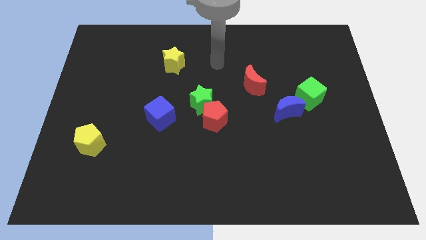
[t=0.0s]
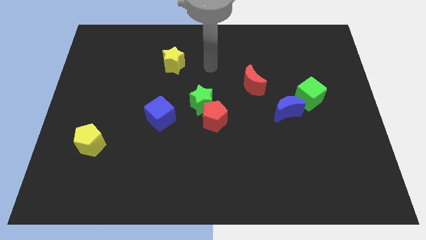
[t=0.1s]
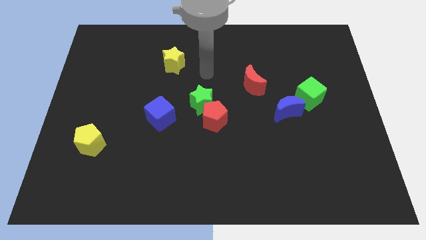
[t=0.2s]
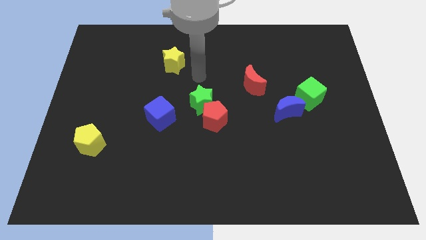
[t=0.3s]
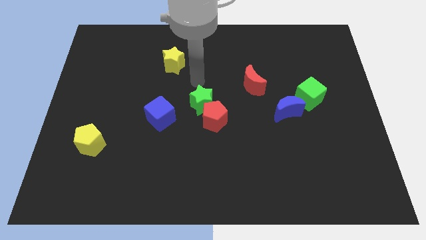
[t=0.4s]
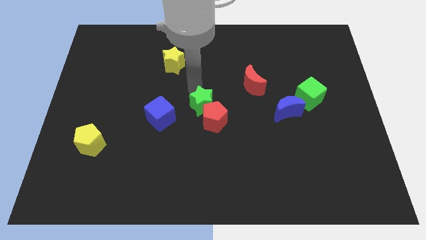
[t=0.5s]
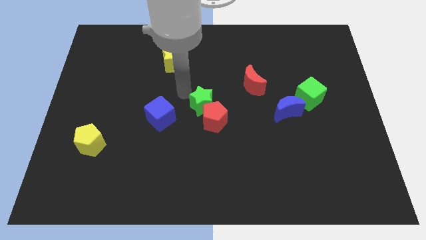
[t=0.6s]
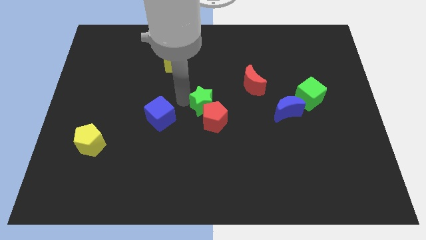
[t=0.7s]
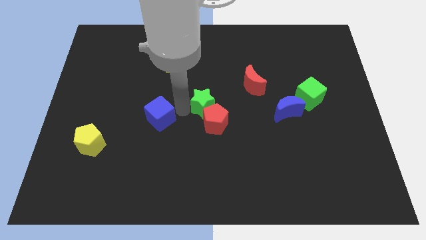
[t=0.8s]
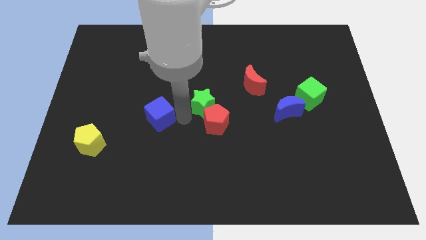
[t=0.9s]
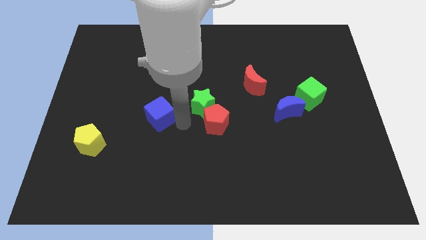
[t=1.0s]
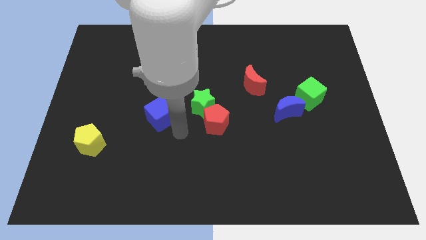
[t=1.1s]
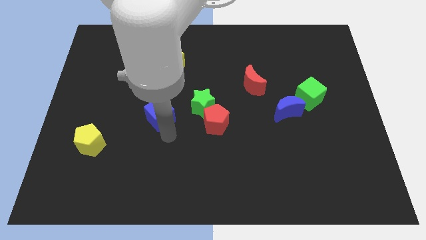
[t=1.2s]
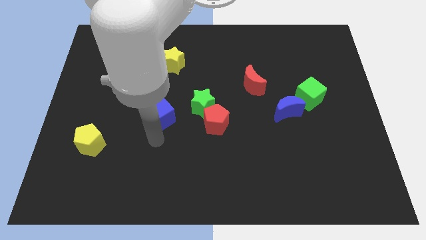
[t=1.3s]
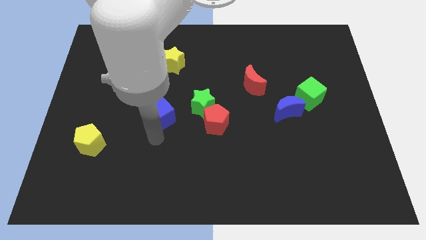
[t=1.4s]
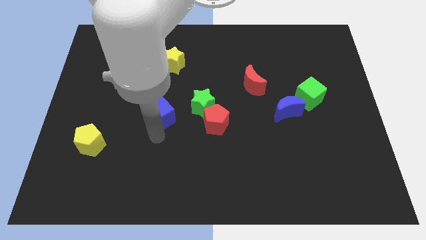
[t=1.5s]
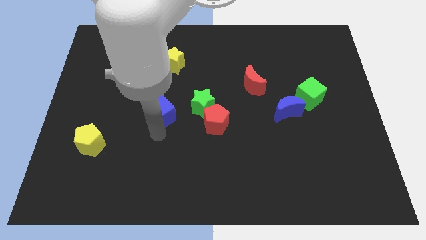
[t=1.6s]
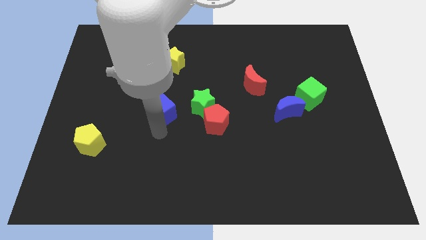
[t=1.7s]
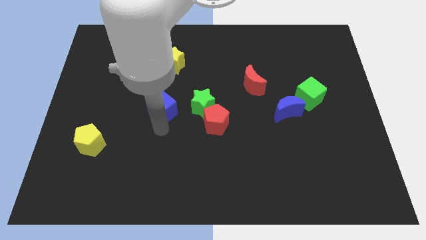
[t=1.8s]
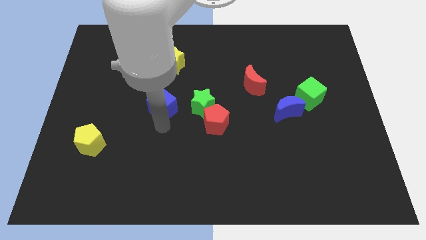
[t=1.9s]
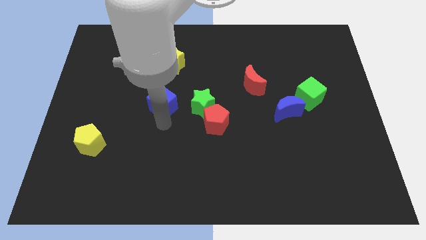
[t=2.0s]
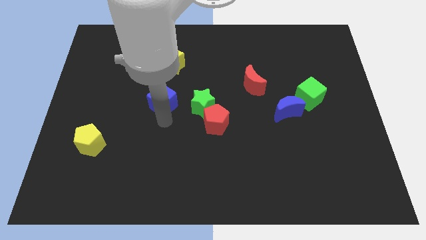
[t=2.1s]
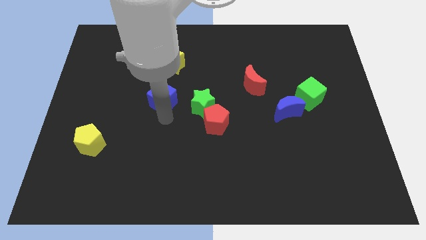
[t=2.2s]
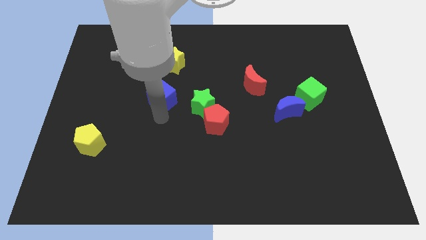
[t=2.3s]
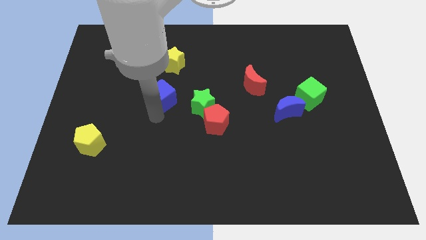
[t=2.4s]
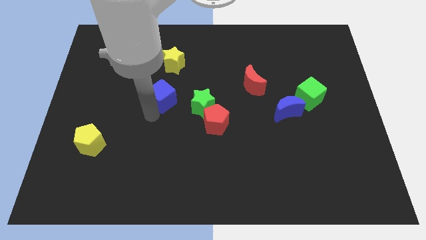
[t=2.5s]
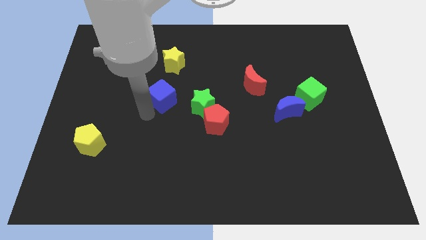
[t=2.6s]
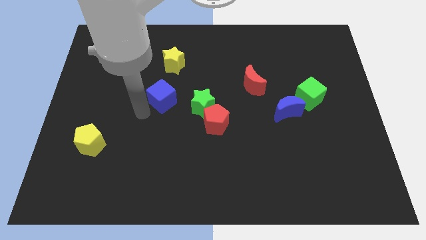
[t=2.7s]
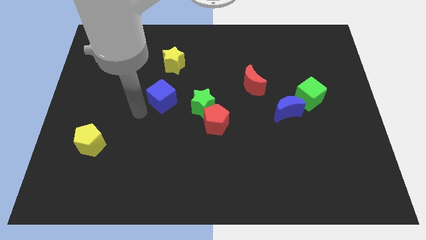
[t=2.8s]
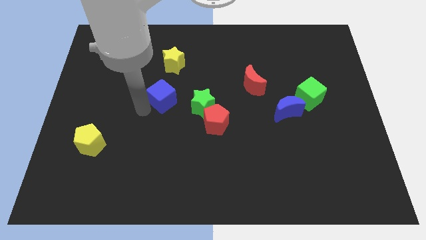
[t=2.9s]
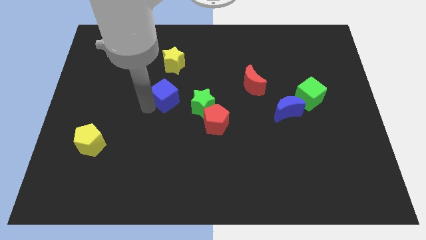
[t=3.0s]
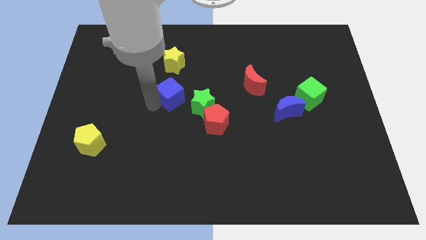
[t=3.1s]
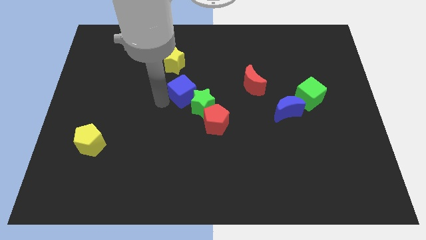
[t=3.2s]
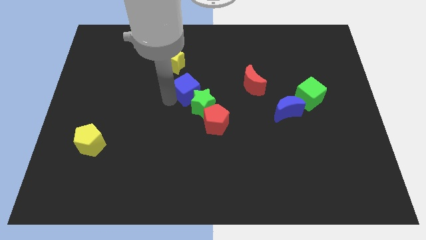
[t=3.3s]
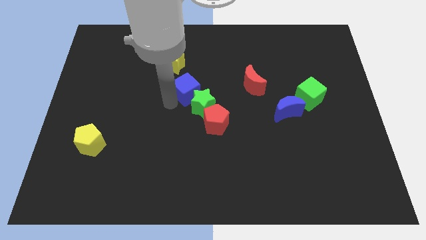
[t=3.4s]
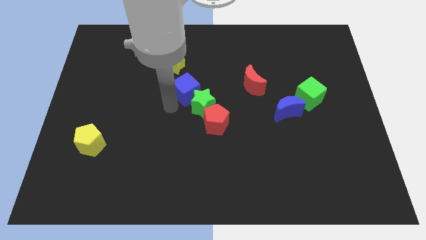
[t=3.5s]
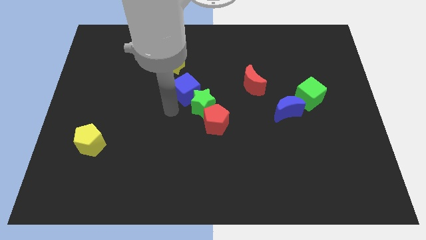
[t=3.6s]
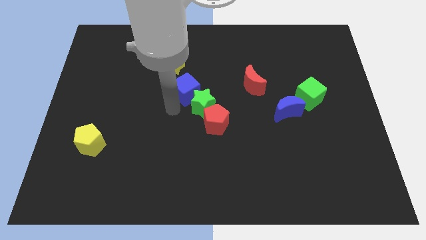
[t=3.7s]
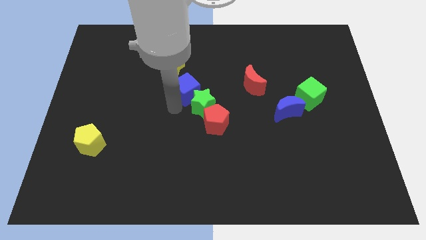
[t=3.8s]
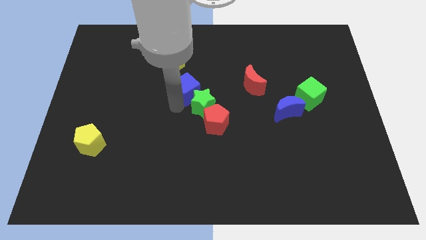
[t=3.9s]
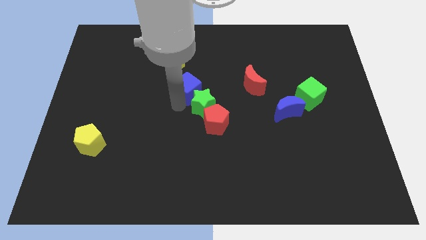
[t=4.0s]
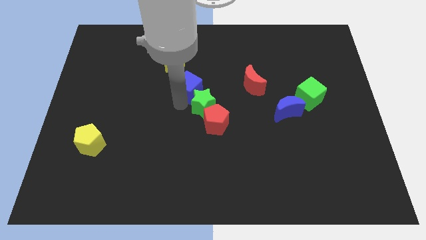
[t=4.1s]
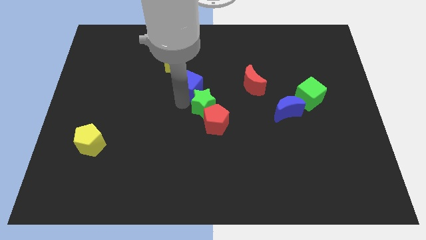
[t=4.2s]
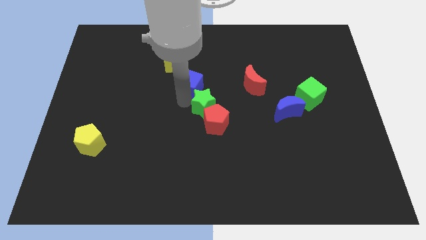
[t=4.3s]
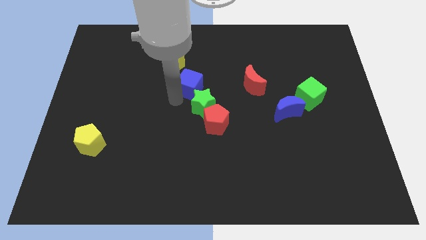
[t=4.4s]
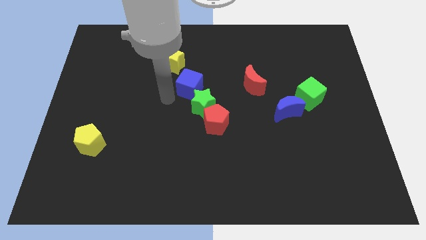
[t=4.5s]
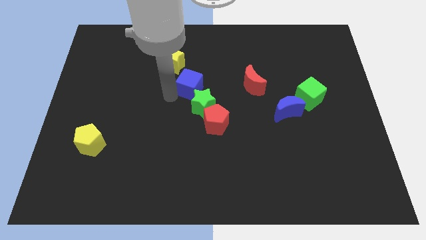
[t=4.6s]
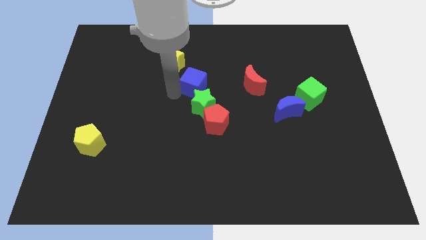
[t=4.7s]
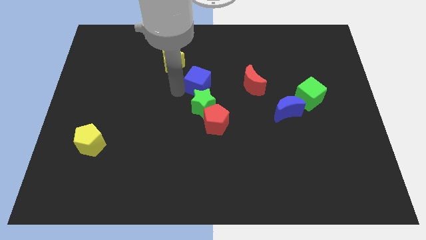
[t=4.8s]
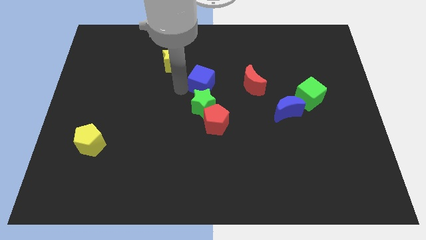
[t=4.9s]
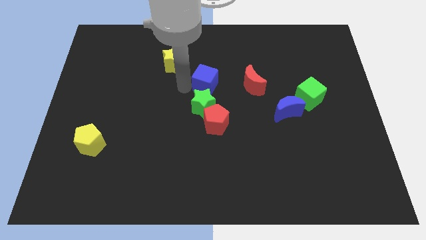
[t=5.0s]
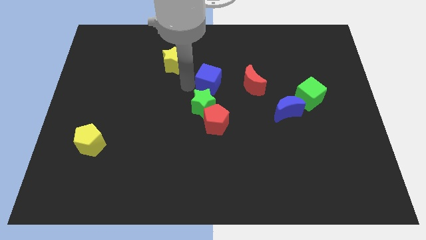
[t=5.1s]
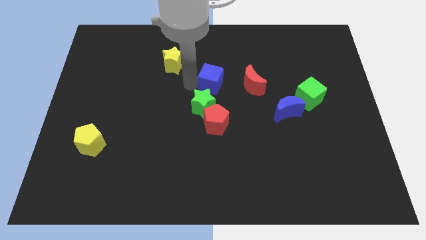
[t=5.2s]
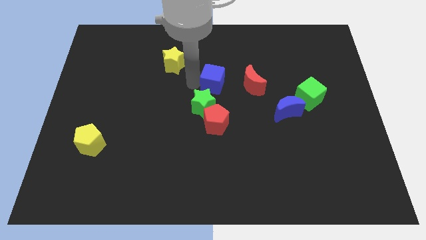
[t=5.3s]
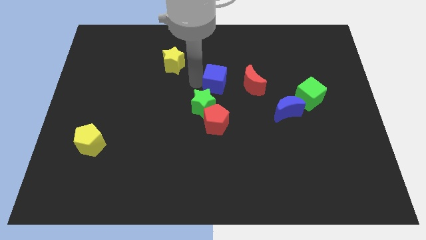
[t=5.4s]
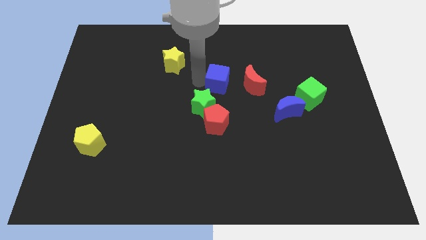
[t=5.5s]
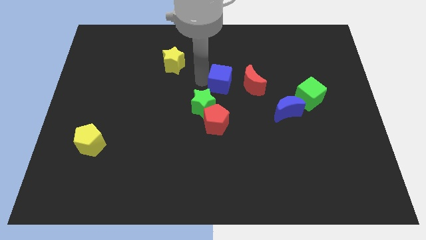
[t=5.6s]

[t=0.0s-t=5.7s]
slide the blue cube to the top left side of the red moon

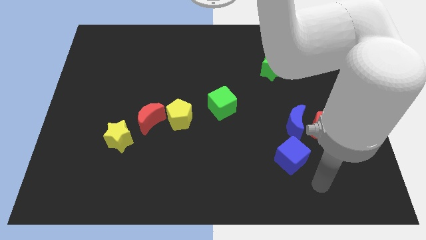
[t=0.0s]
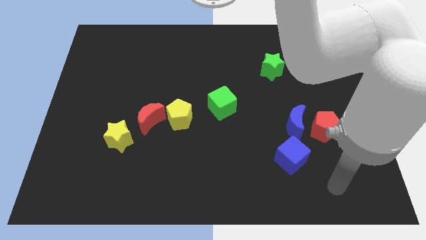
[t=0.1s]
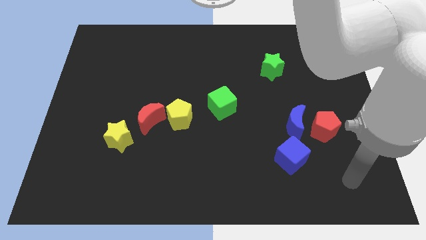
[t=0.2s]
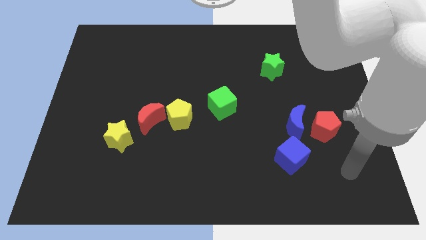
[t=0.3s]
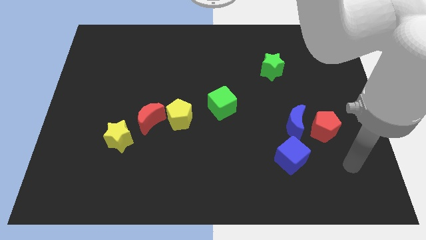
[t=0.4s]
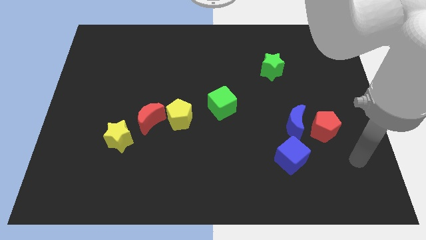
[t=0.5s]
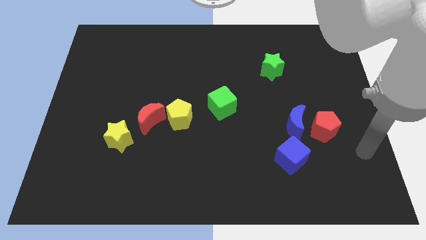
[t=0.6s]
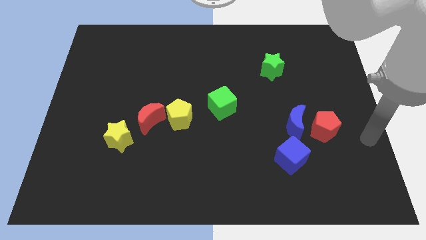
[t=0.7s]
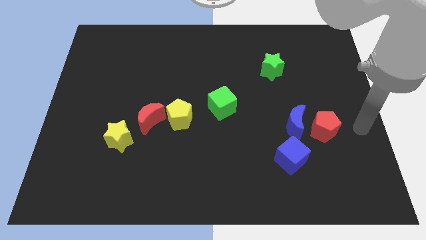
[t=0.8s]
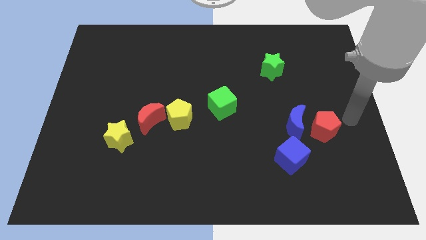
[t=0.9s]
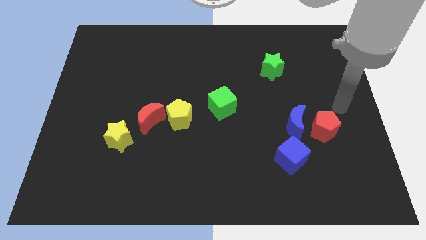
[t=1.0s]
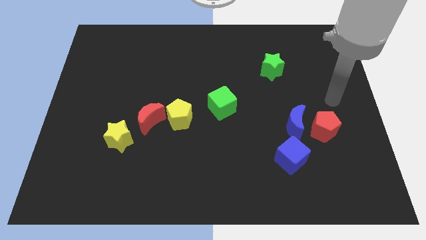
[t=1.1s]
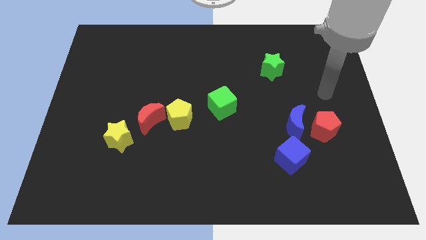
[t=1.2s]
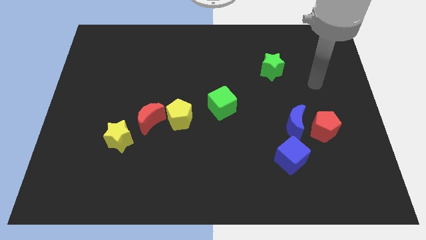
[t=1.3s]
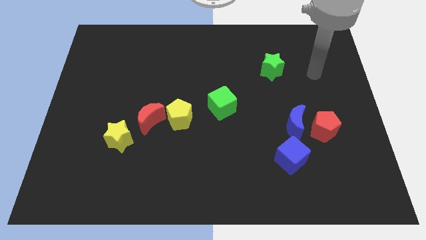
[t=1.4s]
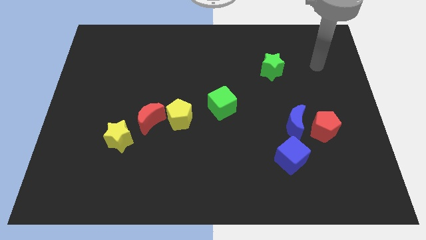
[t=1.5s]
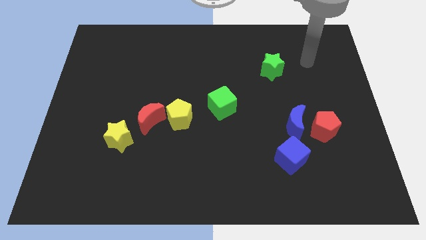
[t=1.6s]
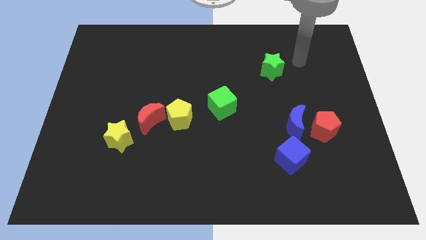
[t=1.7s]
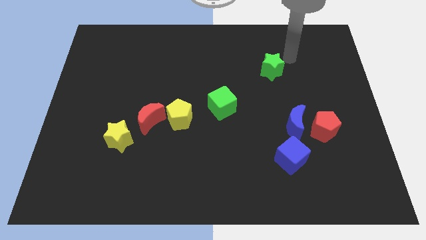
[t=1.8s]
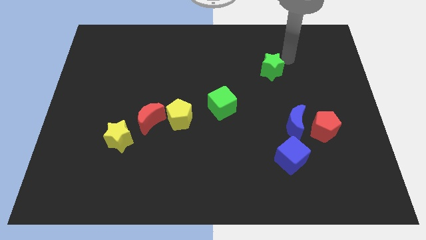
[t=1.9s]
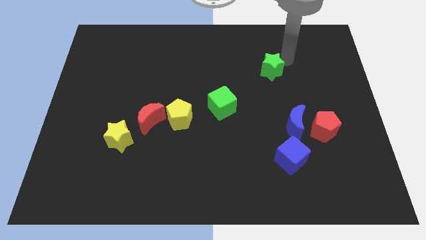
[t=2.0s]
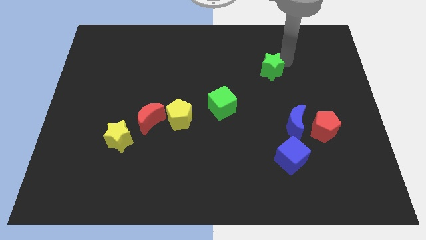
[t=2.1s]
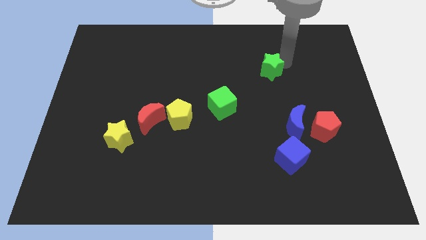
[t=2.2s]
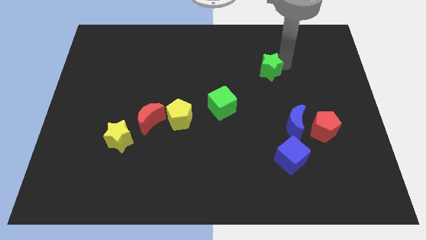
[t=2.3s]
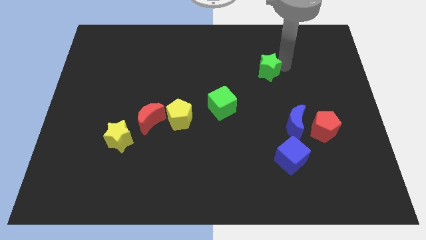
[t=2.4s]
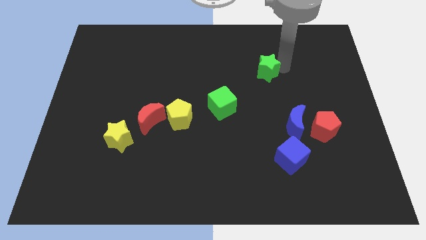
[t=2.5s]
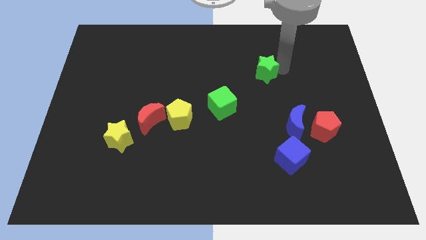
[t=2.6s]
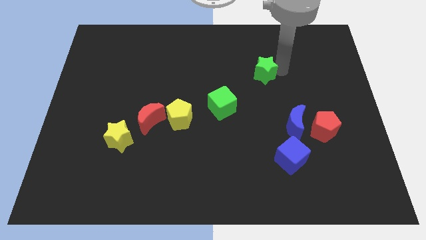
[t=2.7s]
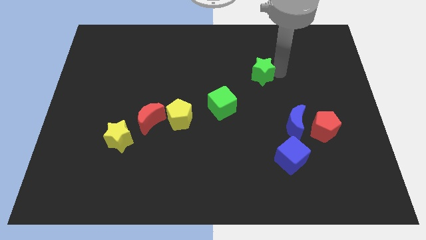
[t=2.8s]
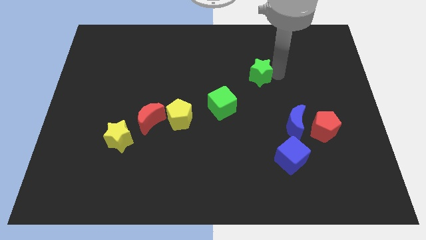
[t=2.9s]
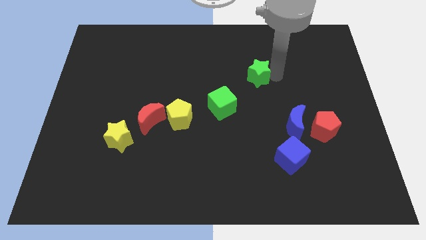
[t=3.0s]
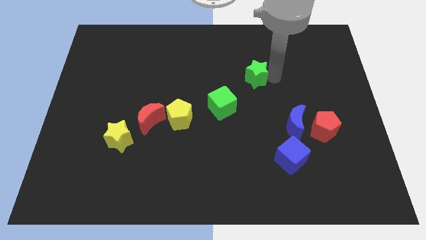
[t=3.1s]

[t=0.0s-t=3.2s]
put the green star to the top right of the green cube
